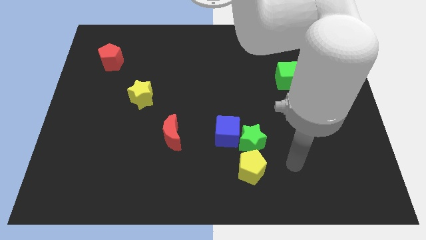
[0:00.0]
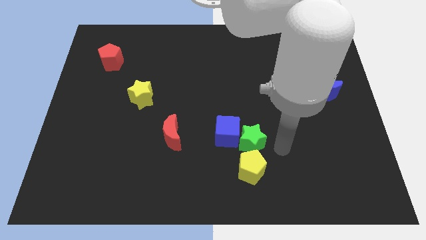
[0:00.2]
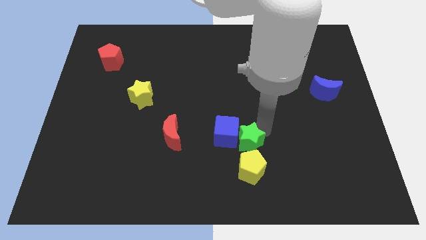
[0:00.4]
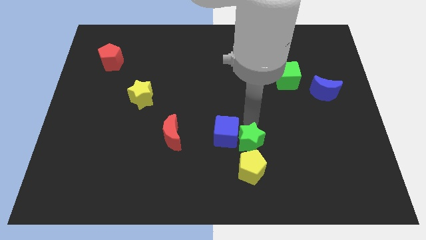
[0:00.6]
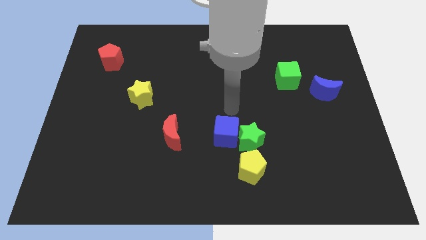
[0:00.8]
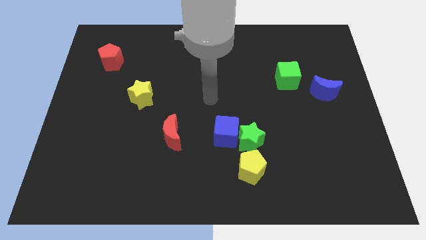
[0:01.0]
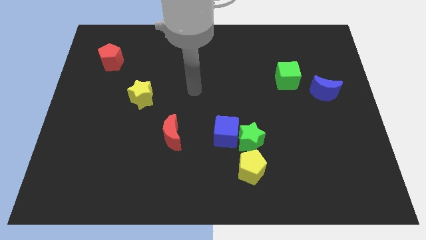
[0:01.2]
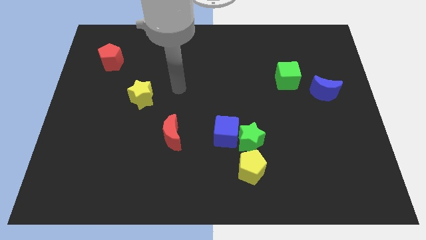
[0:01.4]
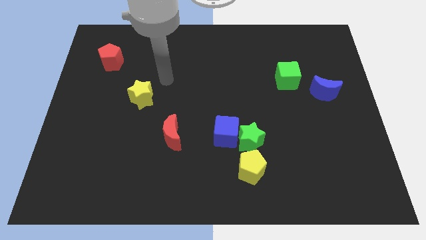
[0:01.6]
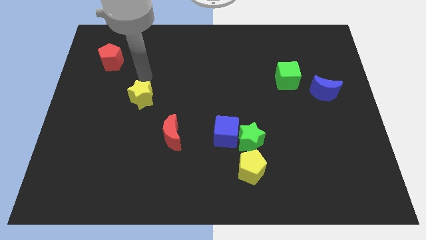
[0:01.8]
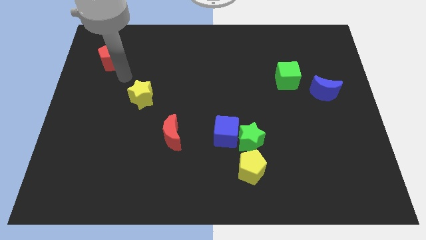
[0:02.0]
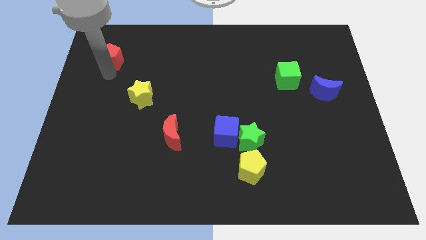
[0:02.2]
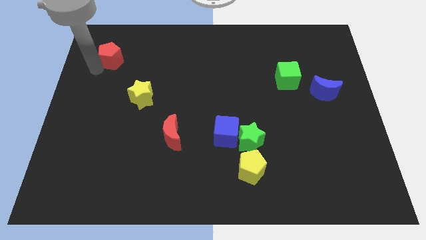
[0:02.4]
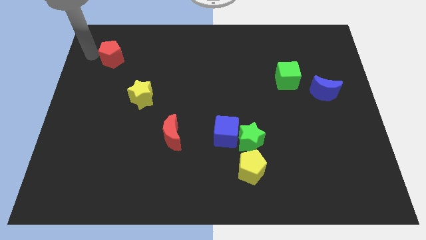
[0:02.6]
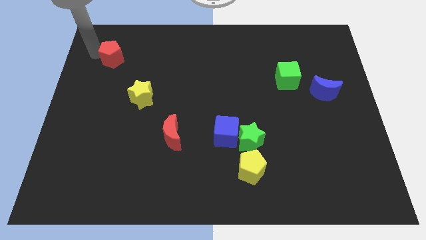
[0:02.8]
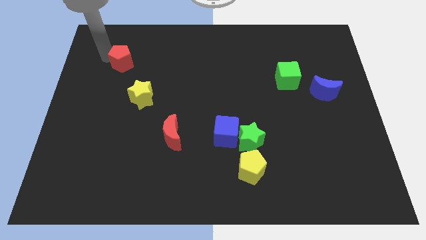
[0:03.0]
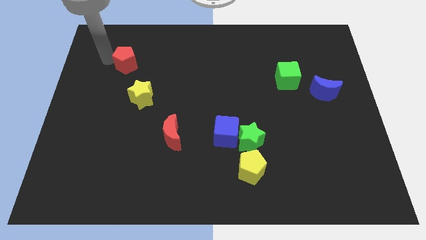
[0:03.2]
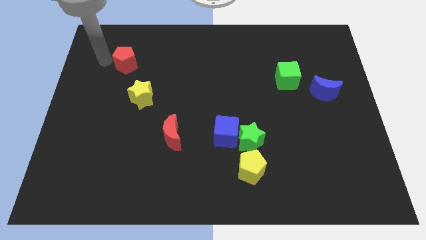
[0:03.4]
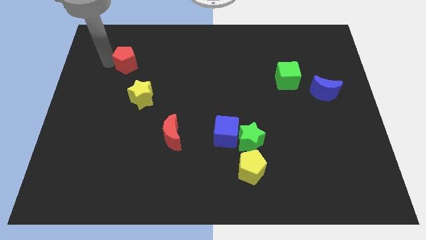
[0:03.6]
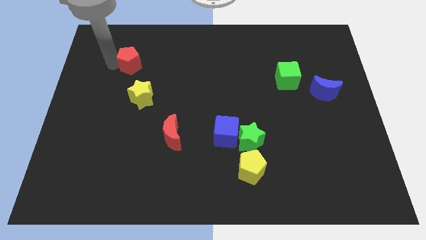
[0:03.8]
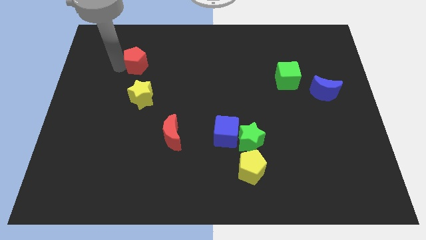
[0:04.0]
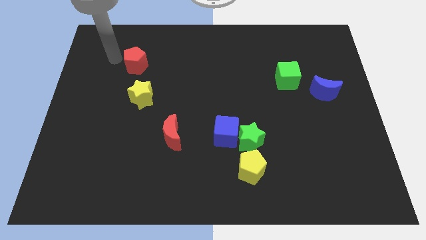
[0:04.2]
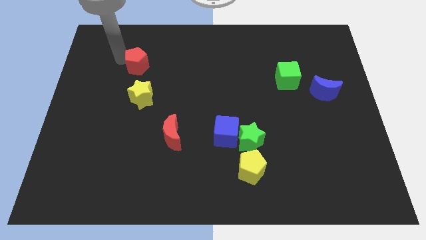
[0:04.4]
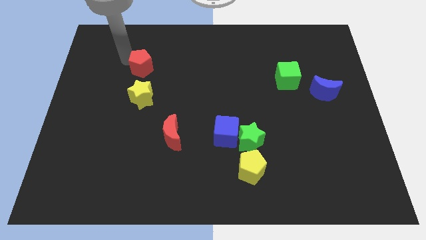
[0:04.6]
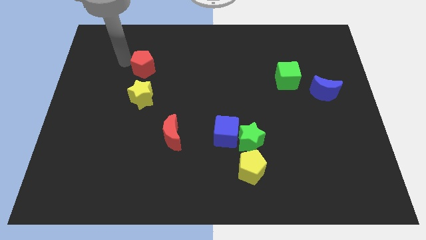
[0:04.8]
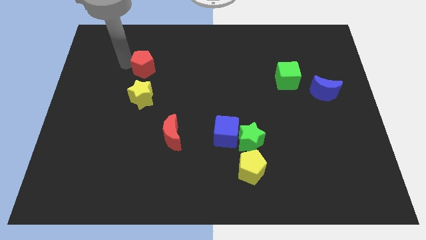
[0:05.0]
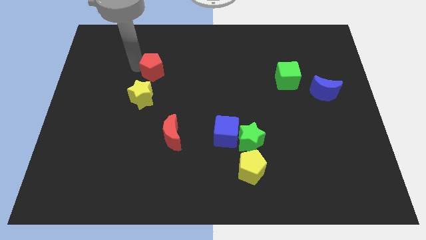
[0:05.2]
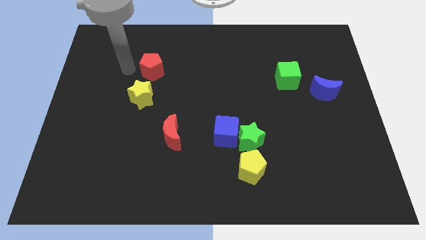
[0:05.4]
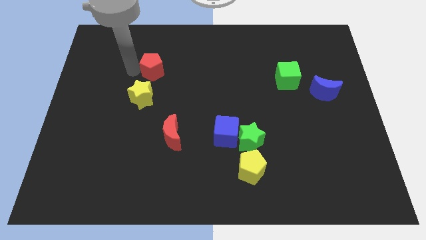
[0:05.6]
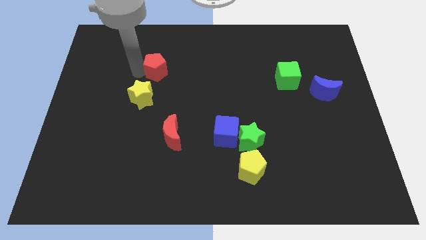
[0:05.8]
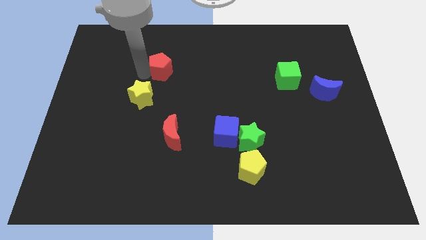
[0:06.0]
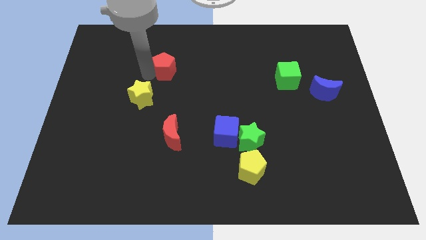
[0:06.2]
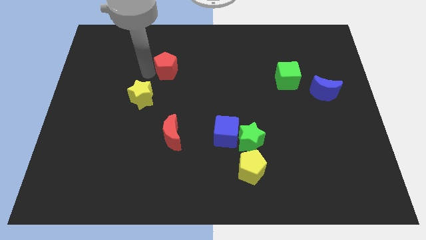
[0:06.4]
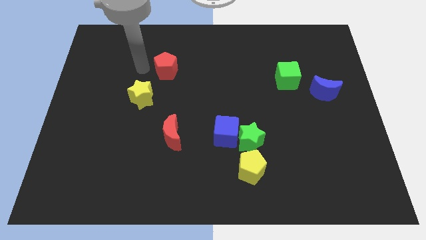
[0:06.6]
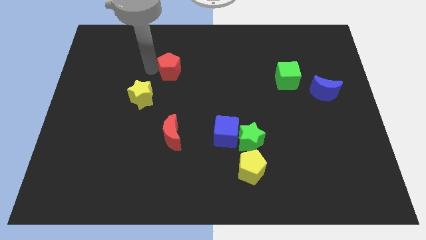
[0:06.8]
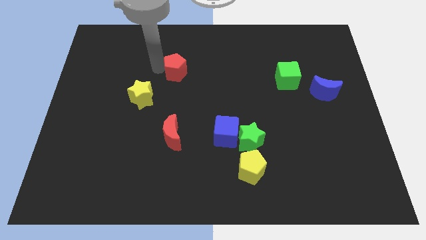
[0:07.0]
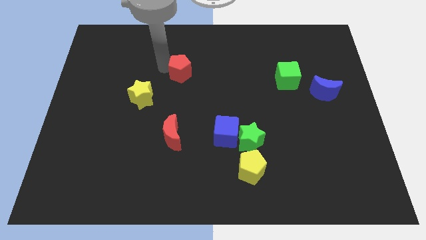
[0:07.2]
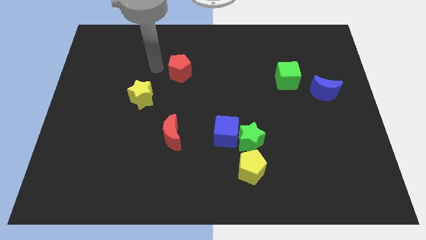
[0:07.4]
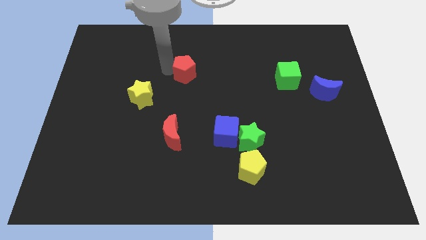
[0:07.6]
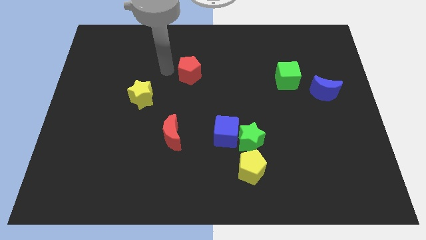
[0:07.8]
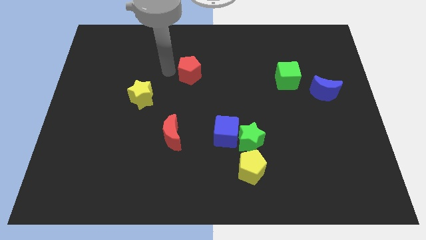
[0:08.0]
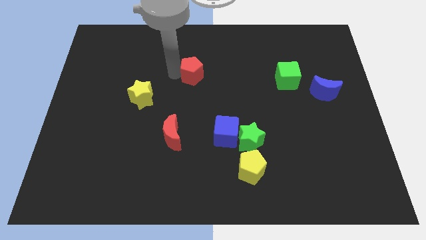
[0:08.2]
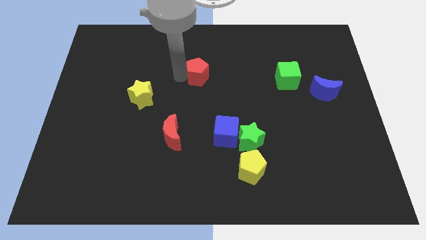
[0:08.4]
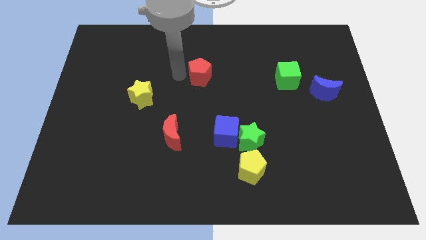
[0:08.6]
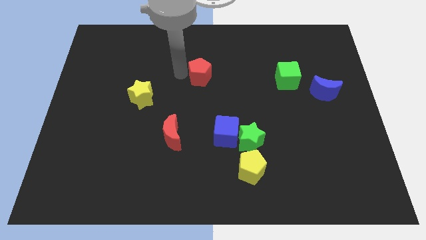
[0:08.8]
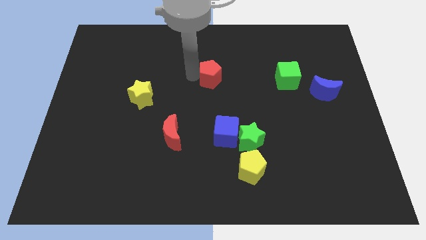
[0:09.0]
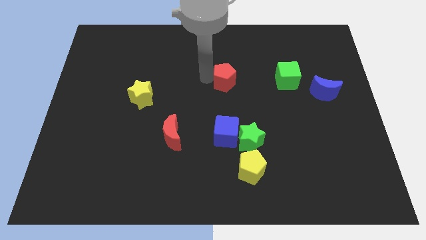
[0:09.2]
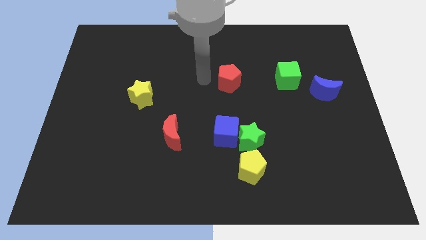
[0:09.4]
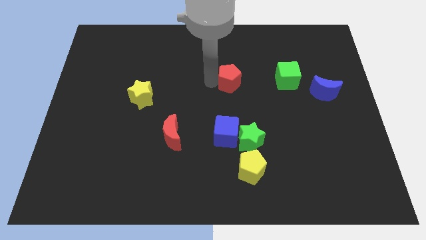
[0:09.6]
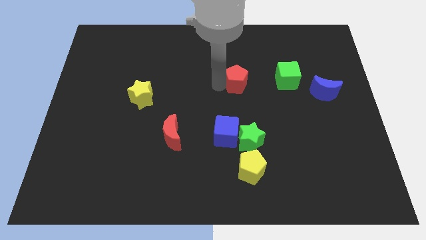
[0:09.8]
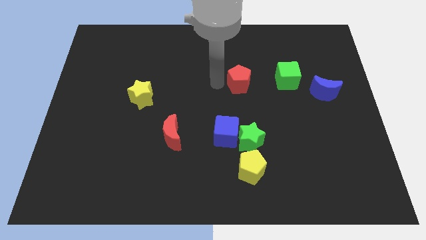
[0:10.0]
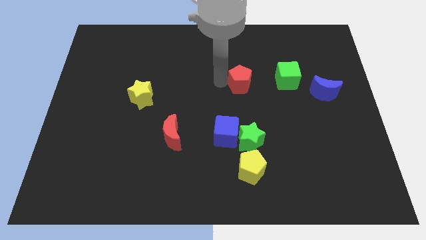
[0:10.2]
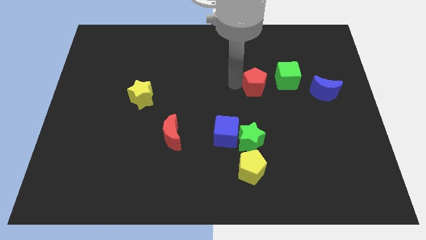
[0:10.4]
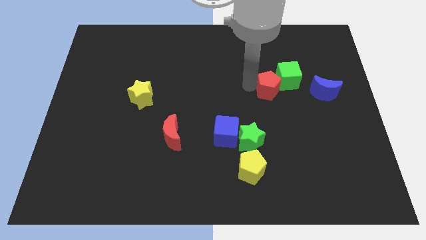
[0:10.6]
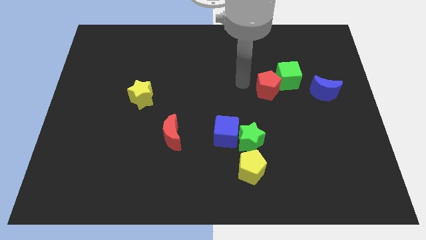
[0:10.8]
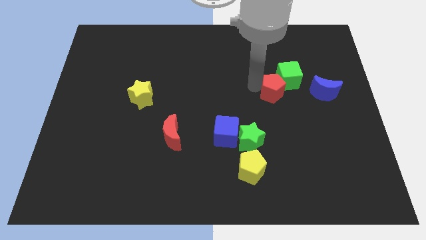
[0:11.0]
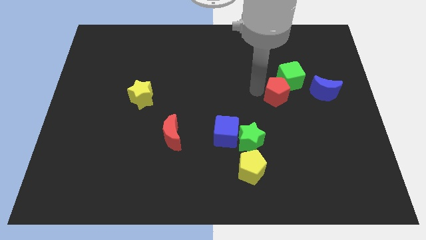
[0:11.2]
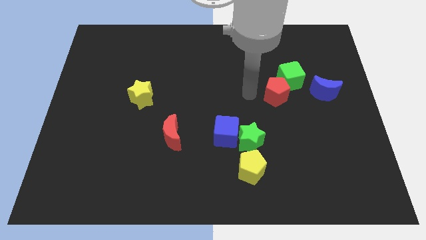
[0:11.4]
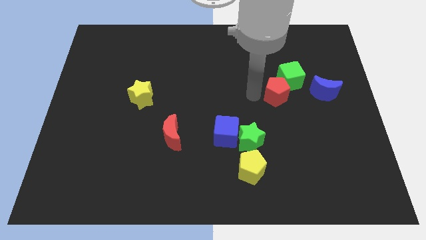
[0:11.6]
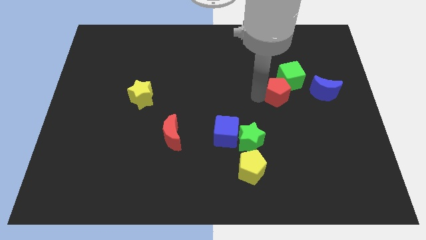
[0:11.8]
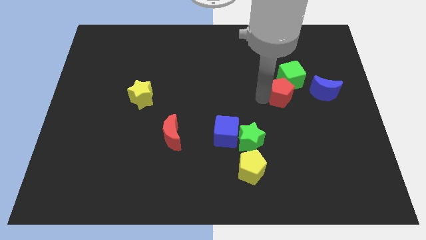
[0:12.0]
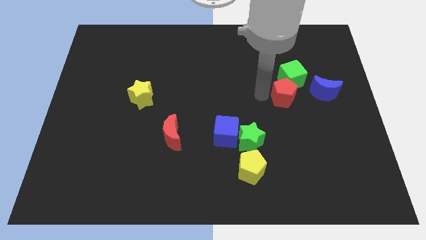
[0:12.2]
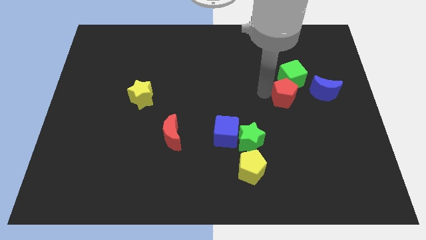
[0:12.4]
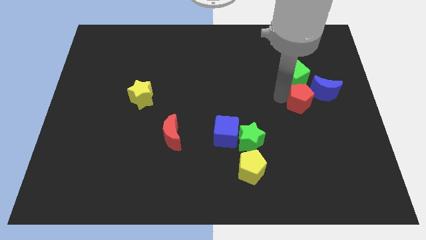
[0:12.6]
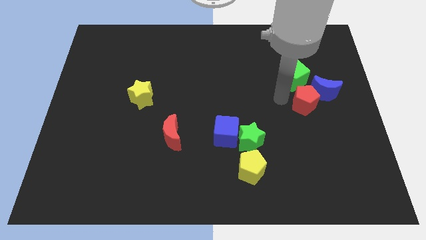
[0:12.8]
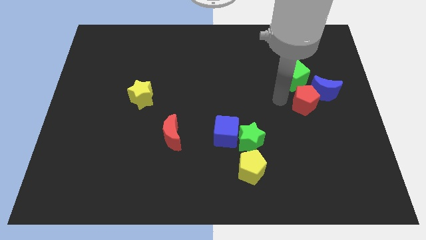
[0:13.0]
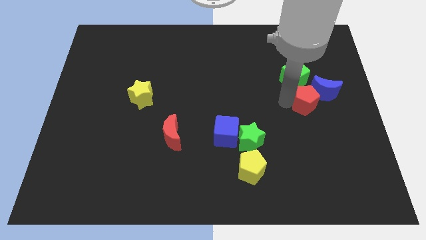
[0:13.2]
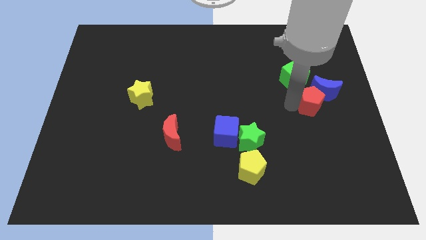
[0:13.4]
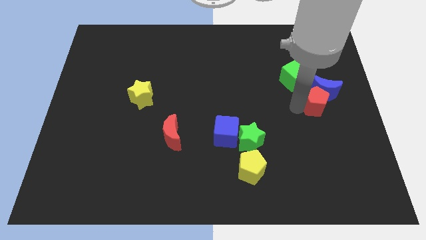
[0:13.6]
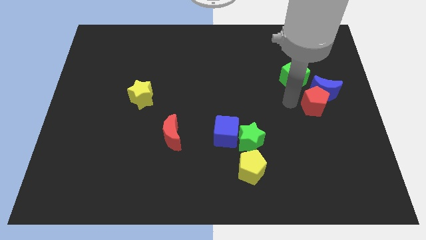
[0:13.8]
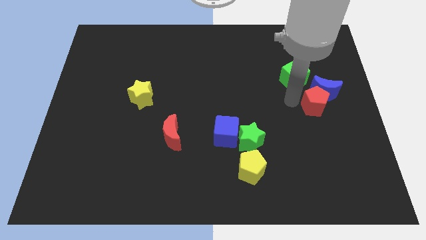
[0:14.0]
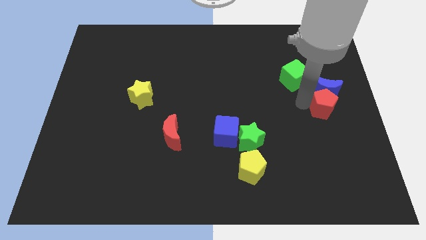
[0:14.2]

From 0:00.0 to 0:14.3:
push the red pentagon to the right side of the board
